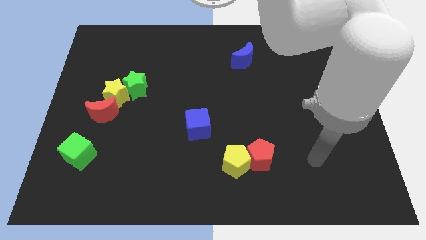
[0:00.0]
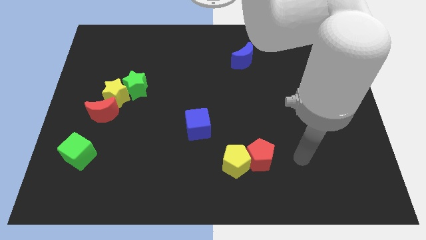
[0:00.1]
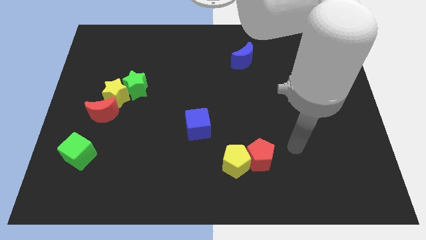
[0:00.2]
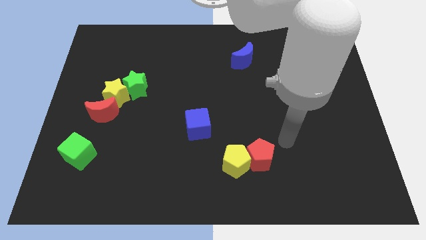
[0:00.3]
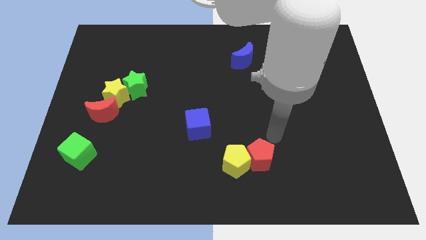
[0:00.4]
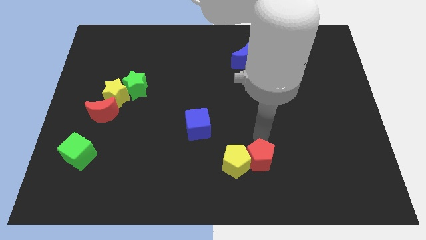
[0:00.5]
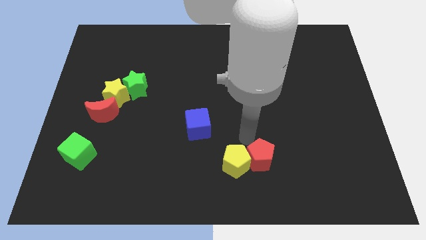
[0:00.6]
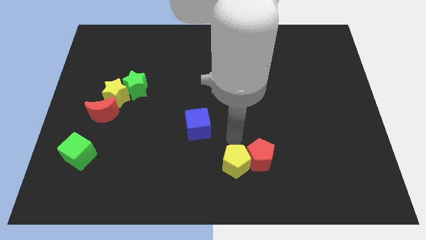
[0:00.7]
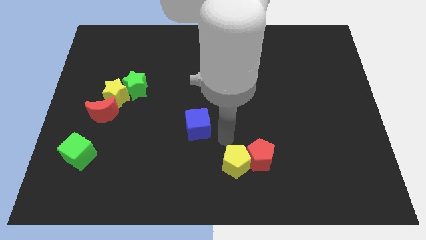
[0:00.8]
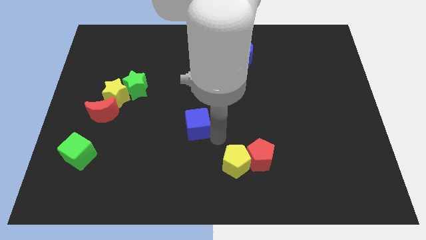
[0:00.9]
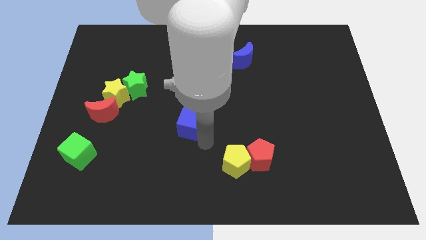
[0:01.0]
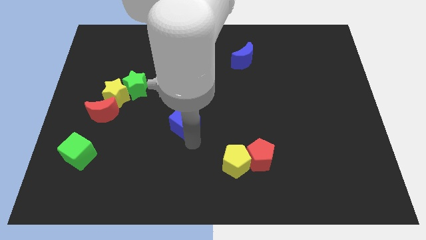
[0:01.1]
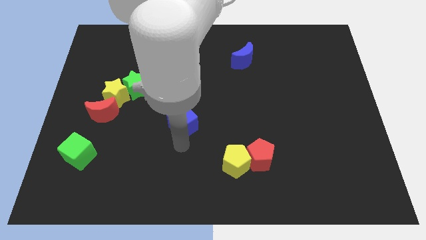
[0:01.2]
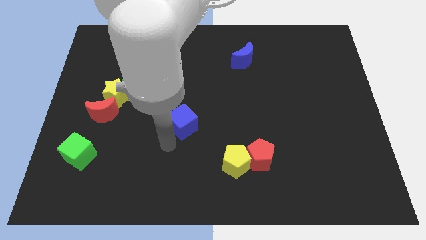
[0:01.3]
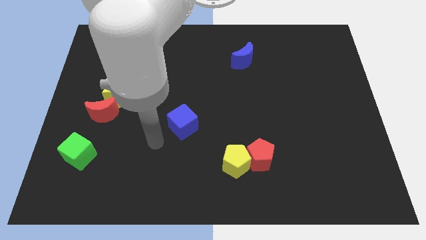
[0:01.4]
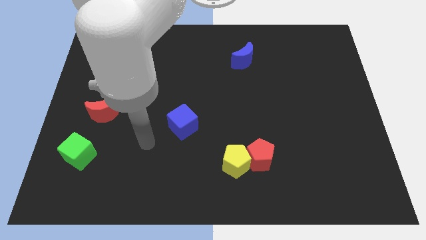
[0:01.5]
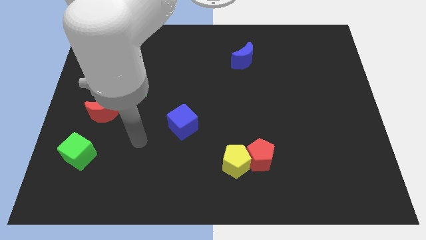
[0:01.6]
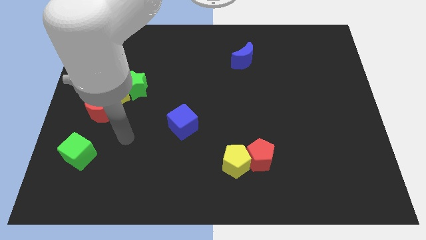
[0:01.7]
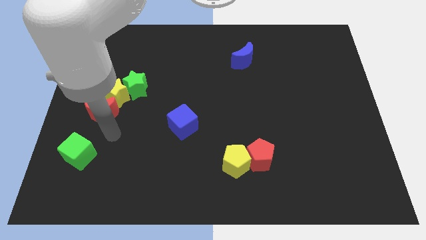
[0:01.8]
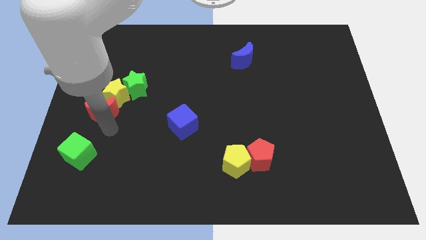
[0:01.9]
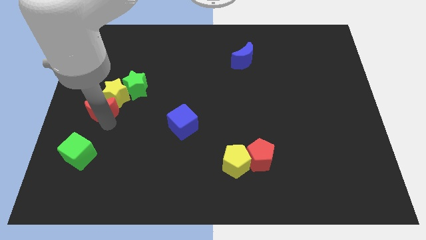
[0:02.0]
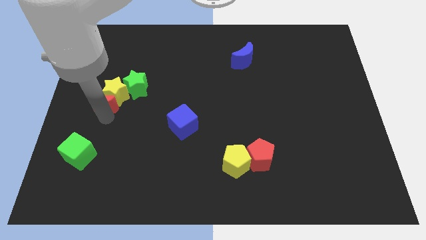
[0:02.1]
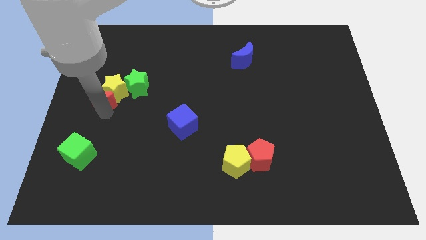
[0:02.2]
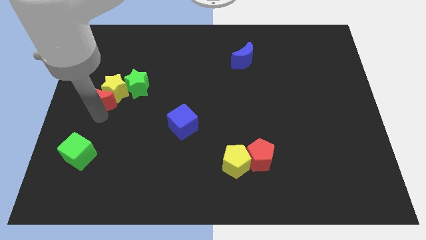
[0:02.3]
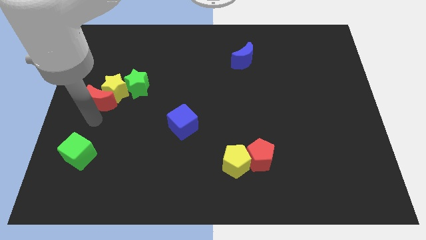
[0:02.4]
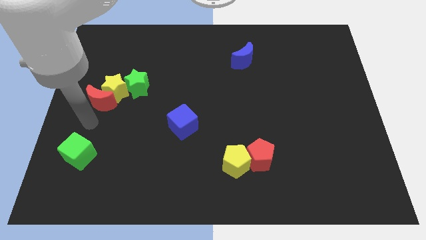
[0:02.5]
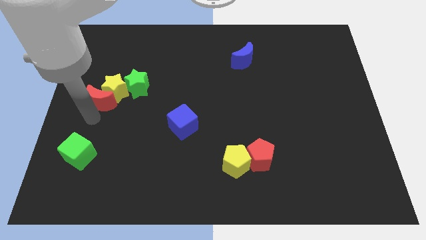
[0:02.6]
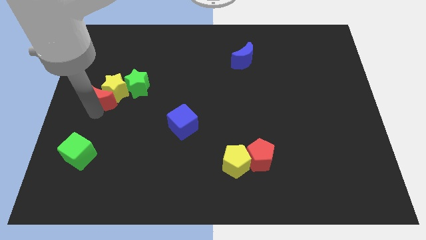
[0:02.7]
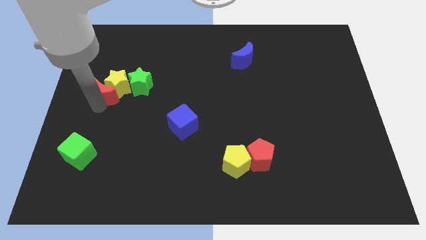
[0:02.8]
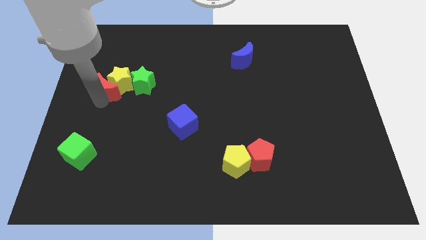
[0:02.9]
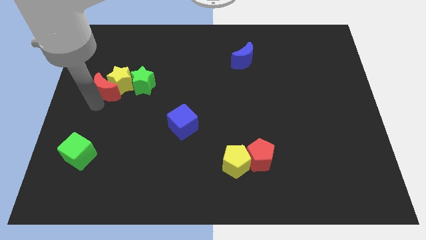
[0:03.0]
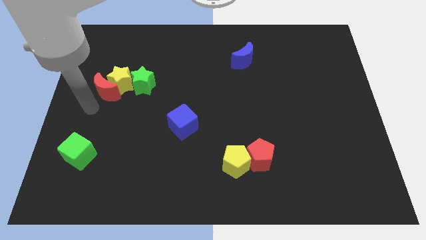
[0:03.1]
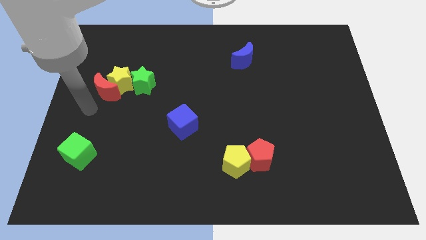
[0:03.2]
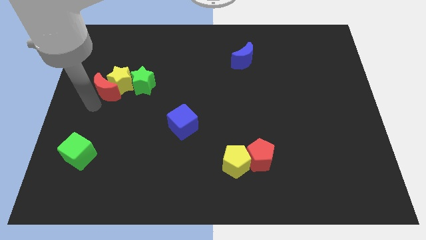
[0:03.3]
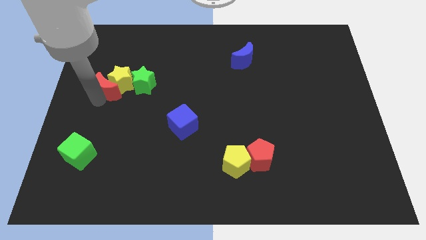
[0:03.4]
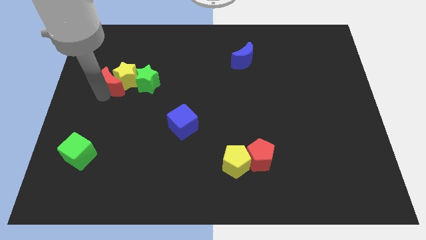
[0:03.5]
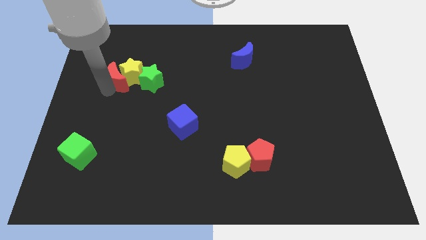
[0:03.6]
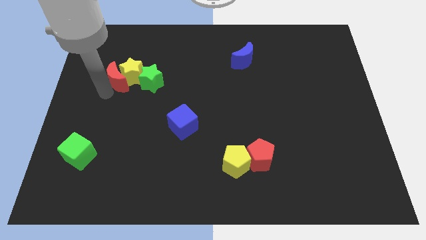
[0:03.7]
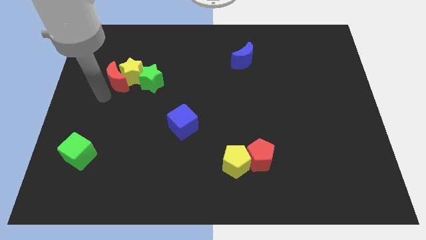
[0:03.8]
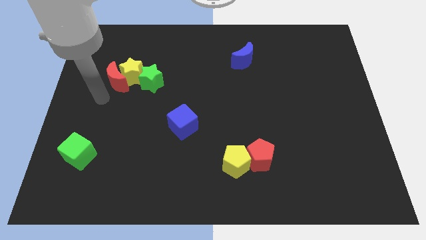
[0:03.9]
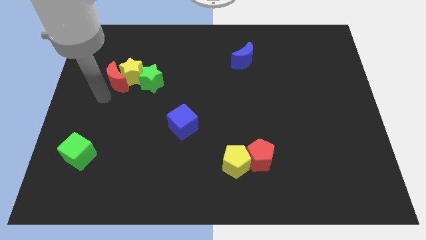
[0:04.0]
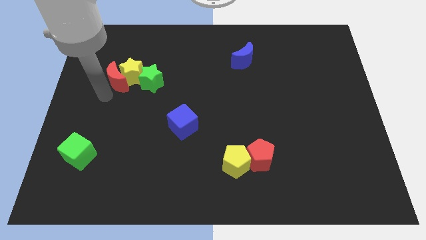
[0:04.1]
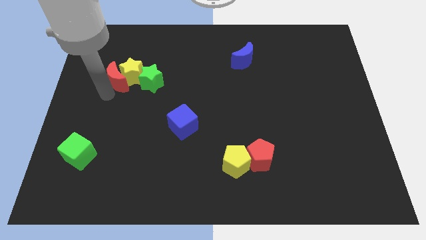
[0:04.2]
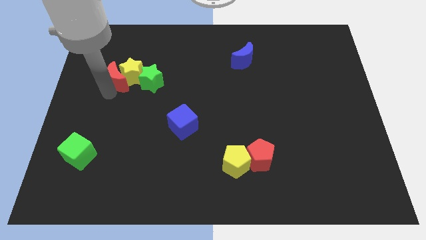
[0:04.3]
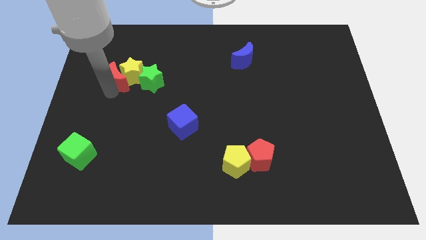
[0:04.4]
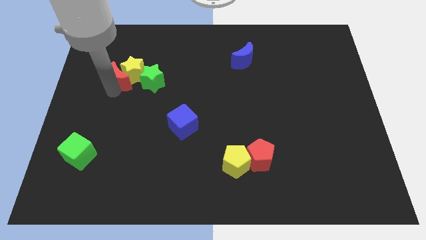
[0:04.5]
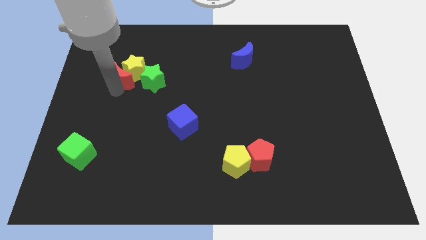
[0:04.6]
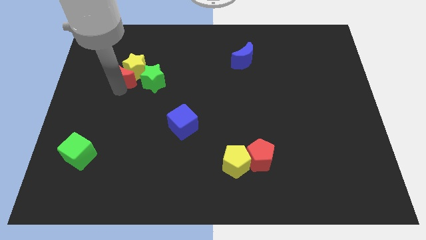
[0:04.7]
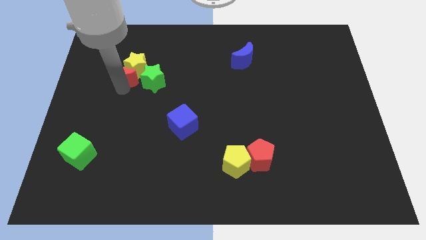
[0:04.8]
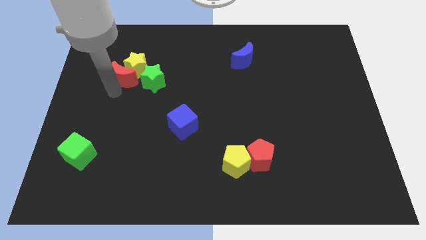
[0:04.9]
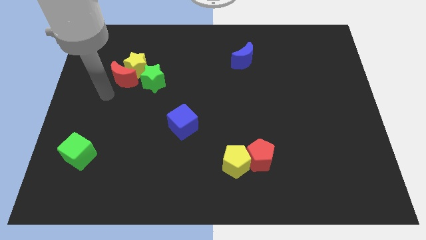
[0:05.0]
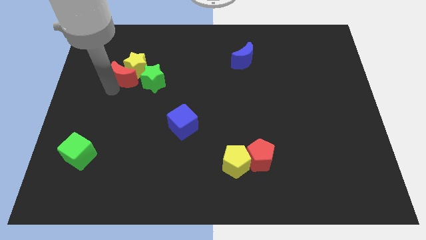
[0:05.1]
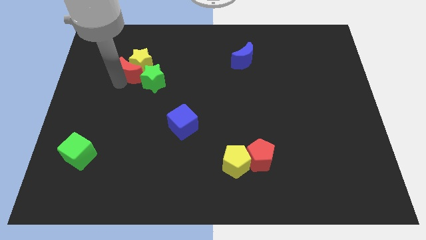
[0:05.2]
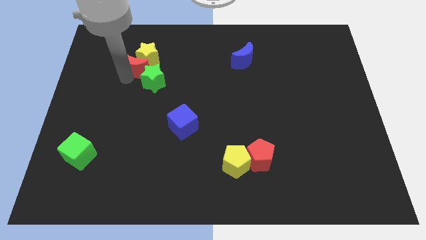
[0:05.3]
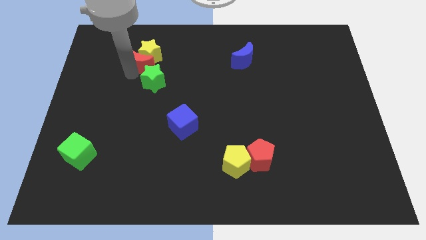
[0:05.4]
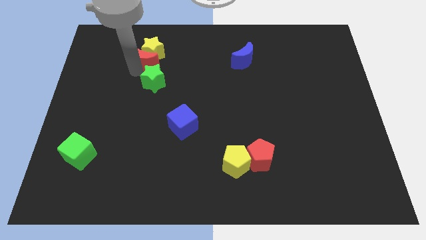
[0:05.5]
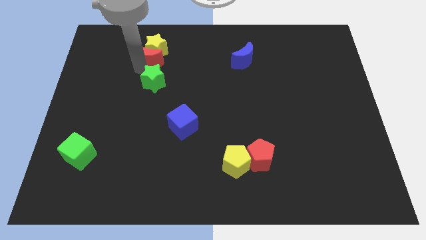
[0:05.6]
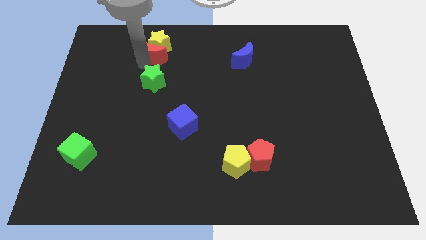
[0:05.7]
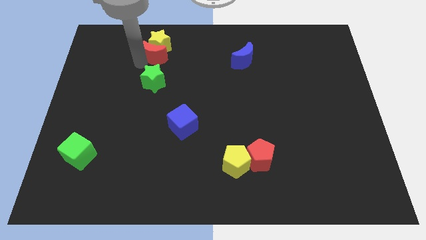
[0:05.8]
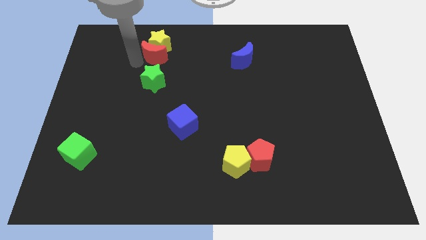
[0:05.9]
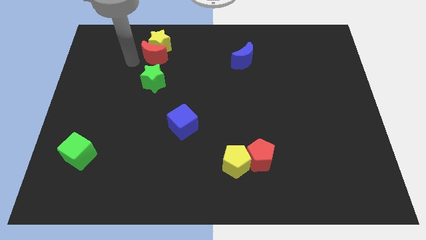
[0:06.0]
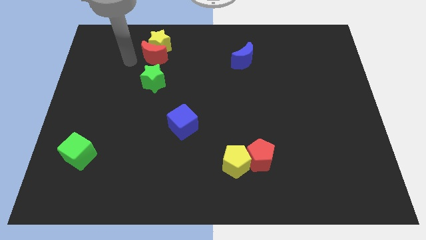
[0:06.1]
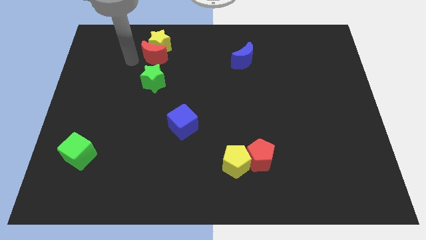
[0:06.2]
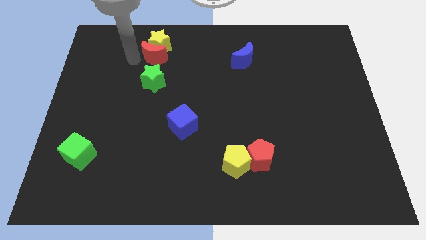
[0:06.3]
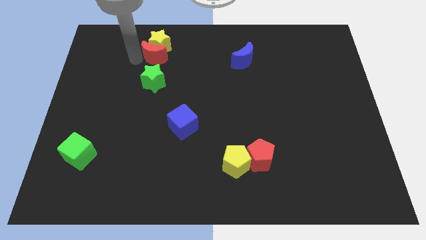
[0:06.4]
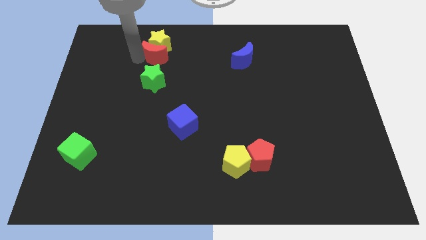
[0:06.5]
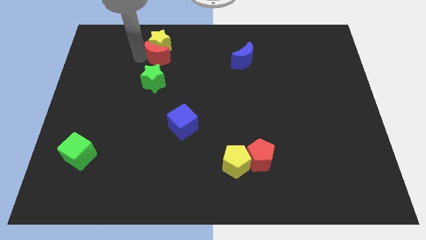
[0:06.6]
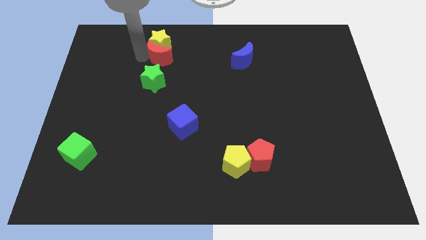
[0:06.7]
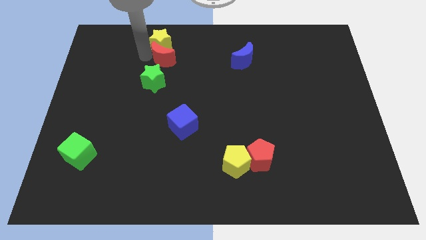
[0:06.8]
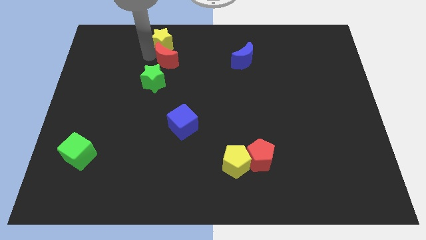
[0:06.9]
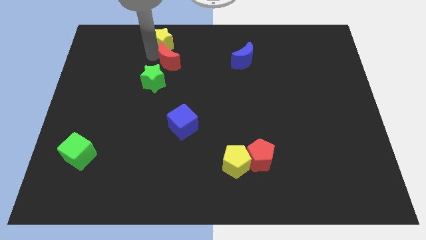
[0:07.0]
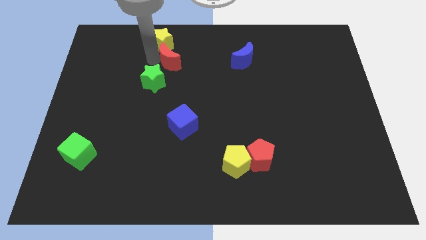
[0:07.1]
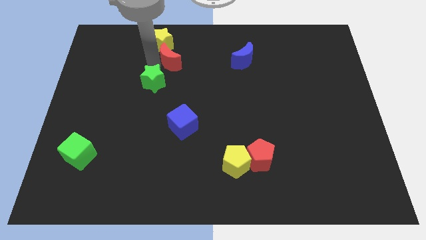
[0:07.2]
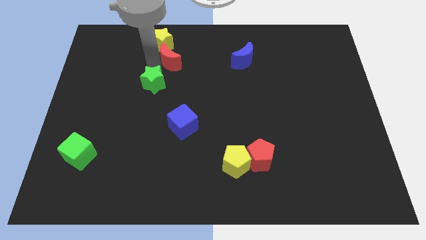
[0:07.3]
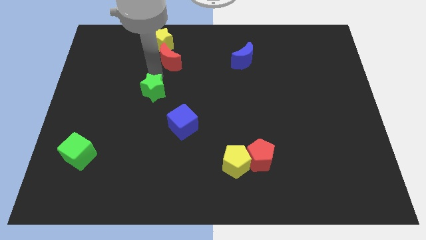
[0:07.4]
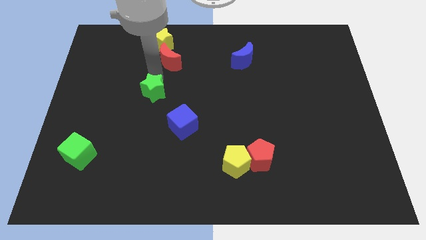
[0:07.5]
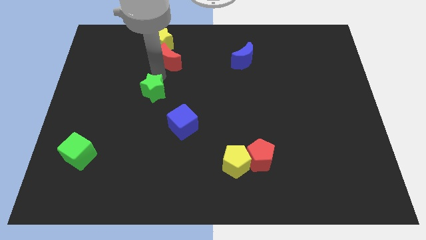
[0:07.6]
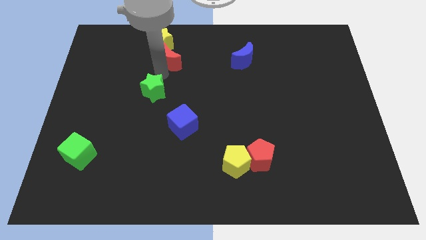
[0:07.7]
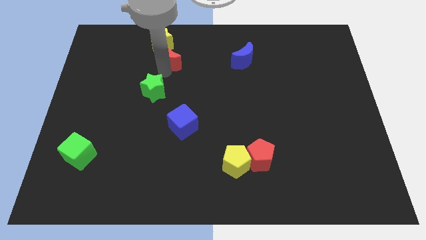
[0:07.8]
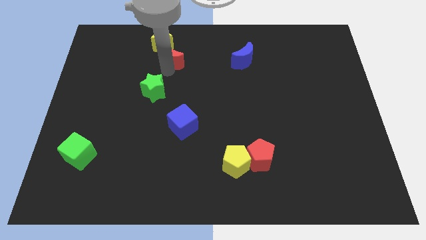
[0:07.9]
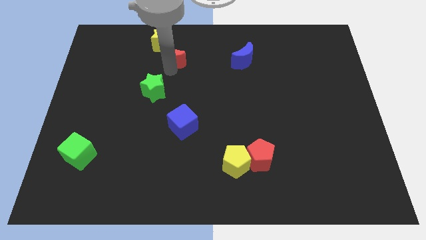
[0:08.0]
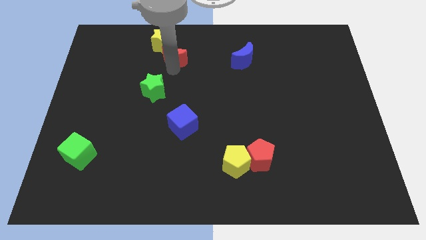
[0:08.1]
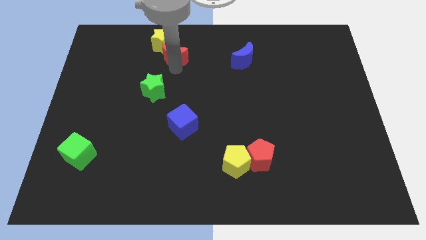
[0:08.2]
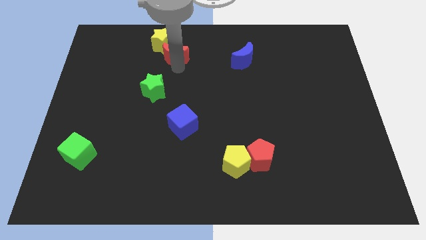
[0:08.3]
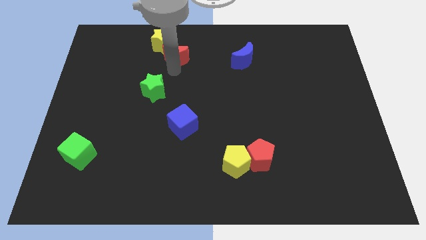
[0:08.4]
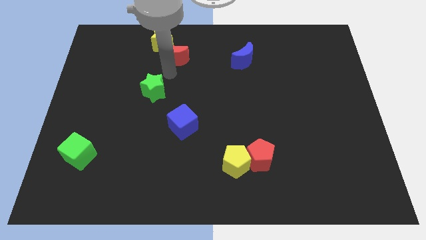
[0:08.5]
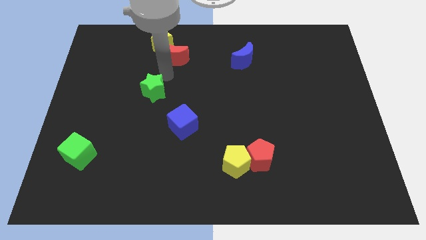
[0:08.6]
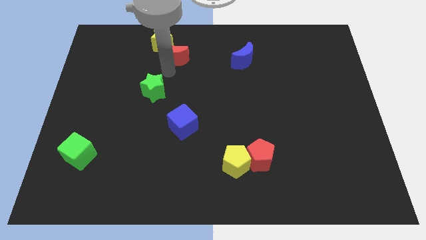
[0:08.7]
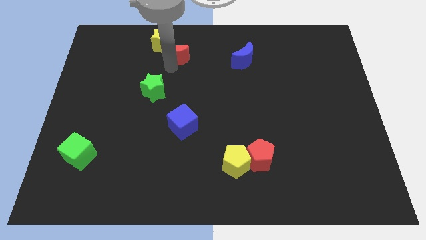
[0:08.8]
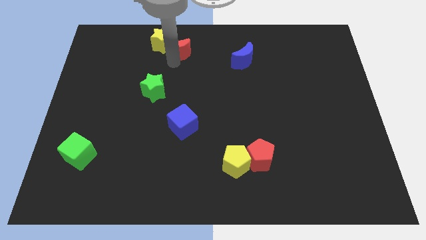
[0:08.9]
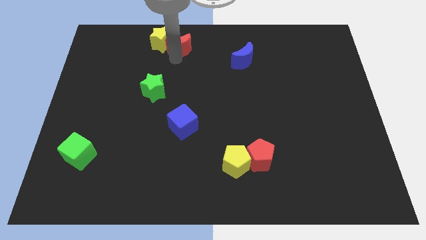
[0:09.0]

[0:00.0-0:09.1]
slide the red moon to the top side
